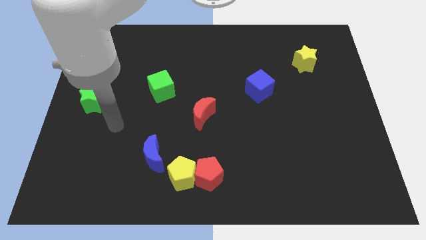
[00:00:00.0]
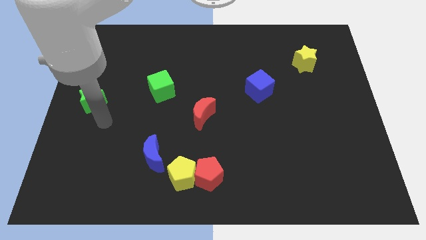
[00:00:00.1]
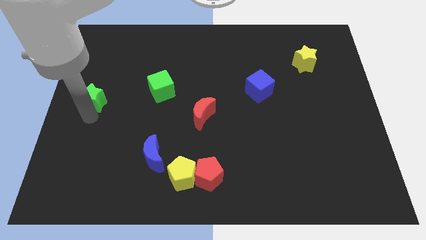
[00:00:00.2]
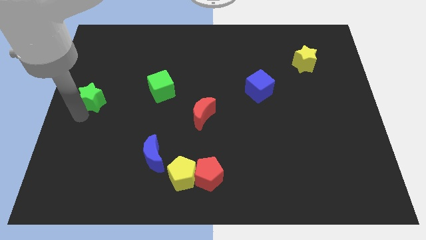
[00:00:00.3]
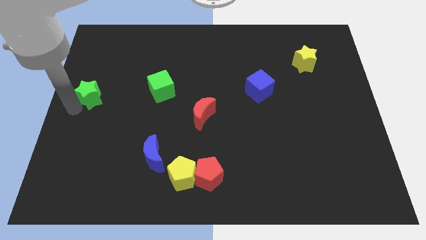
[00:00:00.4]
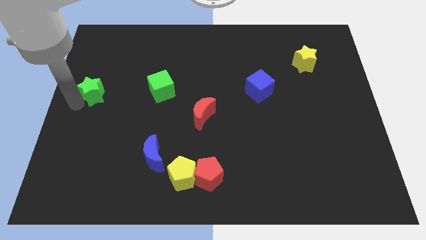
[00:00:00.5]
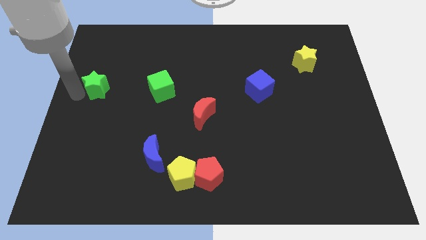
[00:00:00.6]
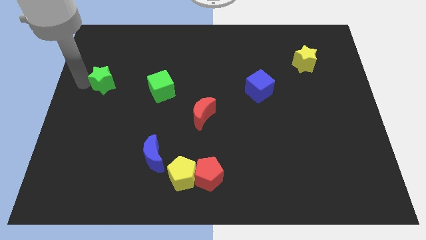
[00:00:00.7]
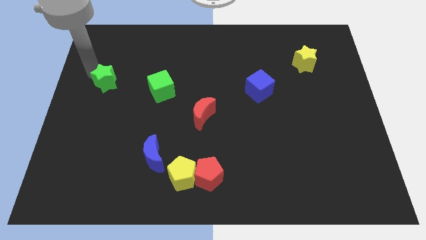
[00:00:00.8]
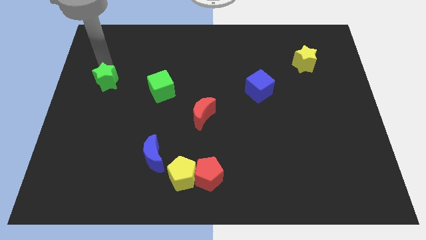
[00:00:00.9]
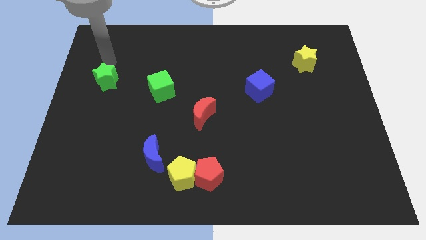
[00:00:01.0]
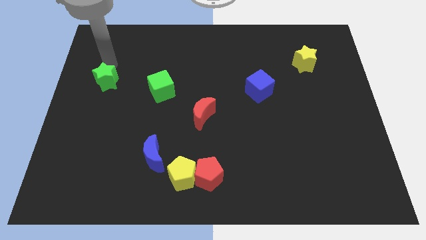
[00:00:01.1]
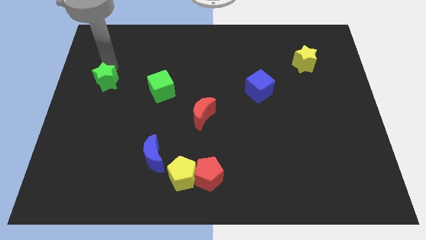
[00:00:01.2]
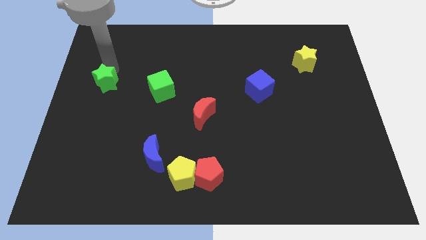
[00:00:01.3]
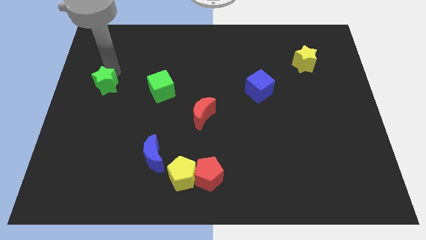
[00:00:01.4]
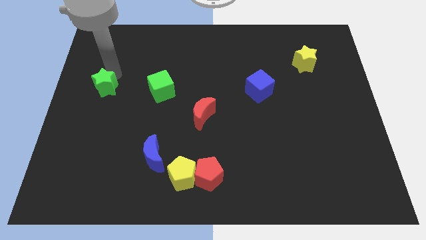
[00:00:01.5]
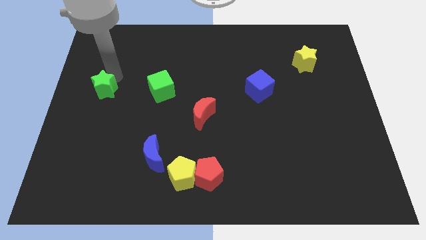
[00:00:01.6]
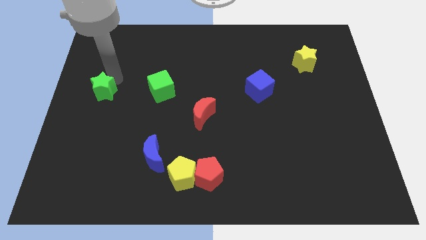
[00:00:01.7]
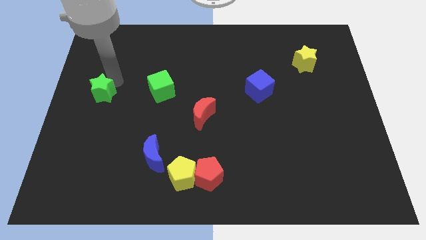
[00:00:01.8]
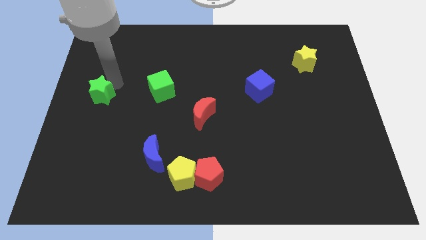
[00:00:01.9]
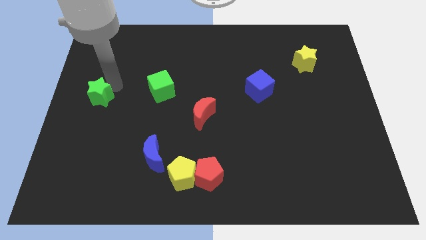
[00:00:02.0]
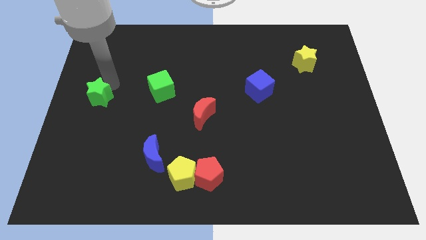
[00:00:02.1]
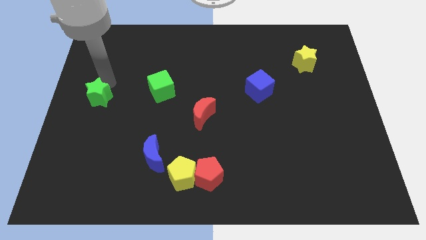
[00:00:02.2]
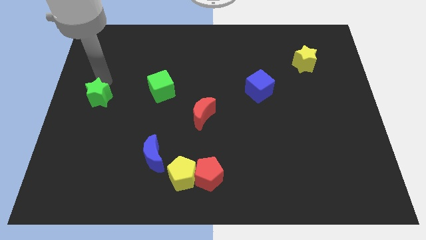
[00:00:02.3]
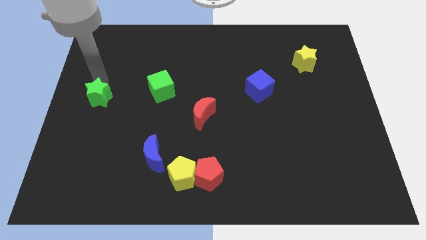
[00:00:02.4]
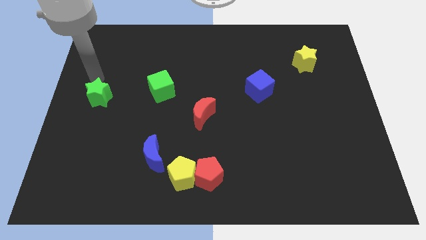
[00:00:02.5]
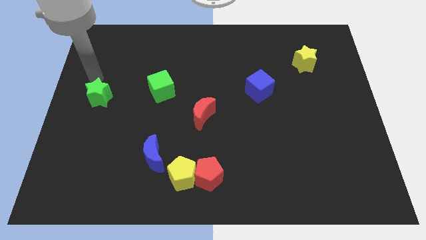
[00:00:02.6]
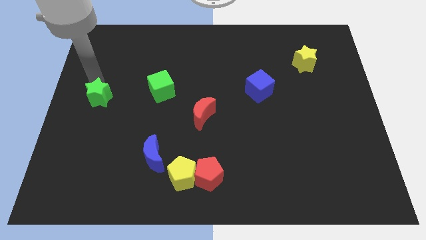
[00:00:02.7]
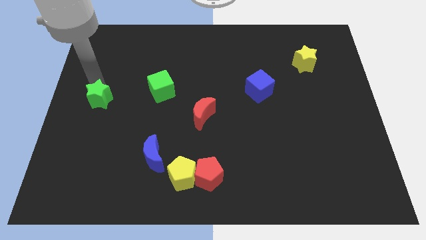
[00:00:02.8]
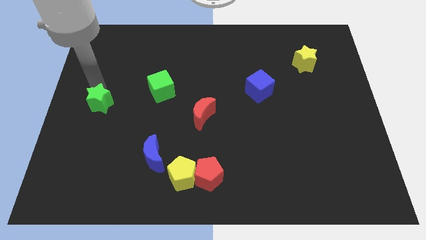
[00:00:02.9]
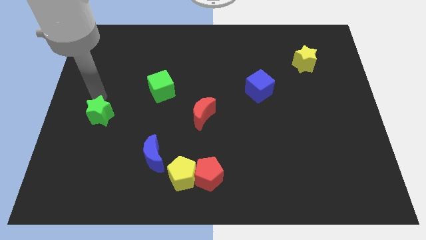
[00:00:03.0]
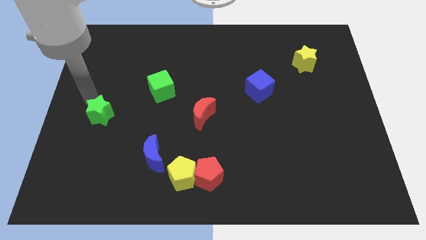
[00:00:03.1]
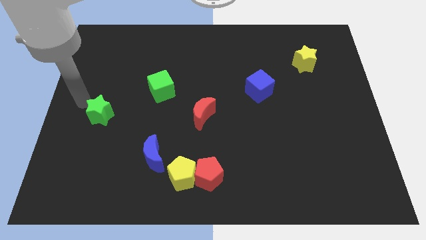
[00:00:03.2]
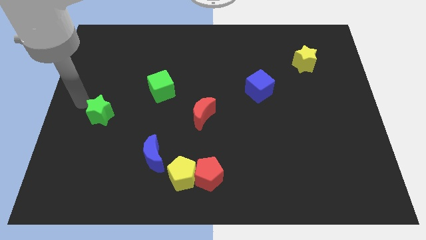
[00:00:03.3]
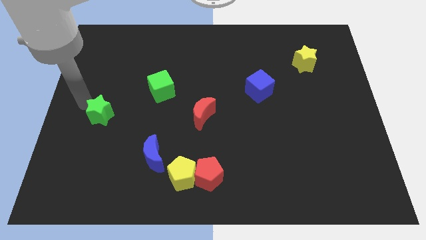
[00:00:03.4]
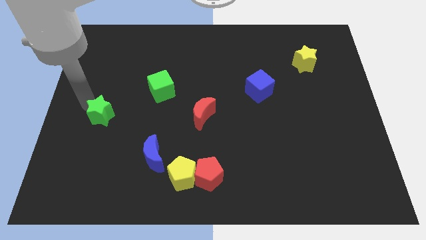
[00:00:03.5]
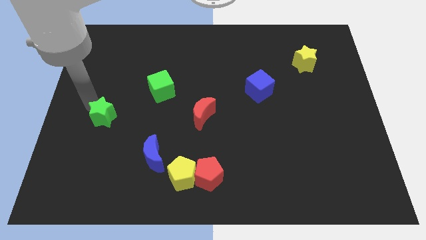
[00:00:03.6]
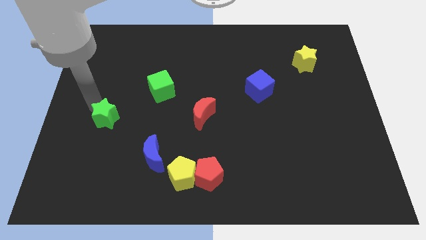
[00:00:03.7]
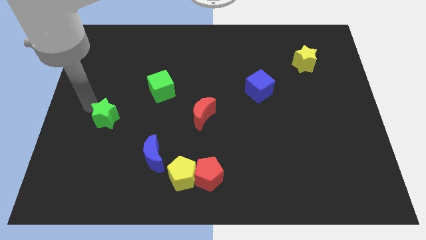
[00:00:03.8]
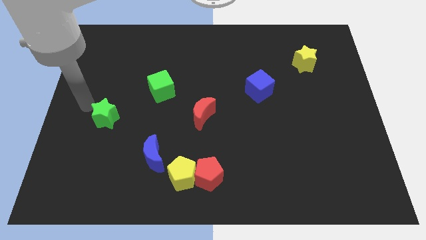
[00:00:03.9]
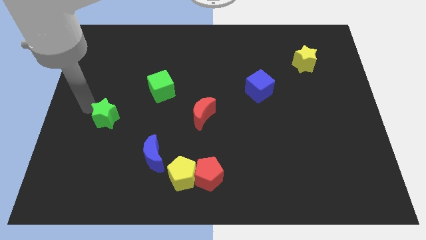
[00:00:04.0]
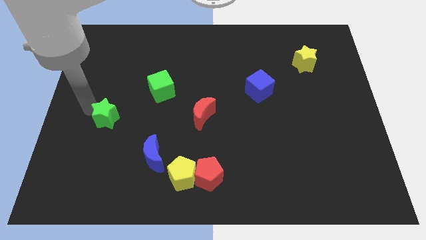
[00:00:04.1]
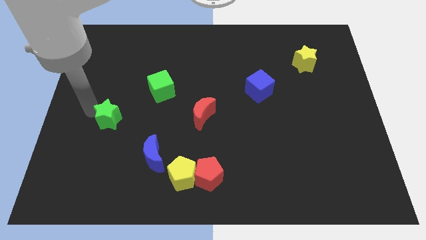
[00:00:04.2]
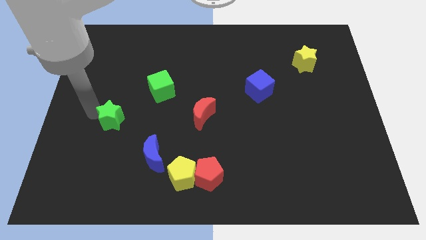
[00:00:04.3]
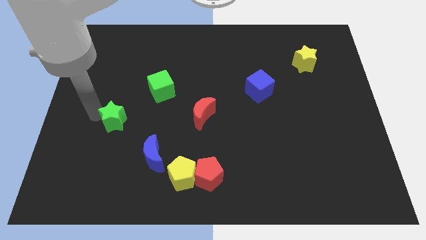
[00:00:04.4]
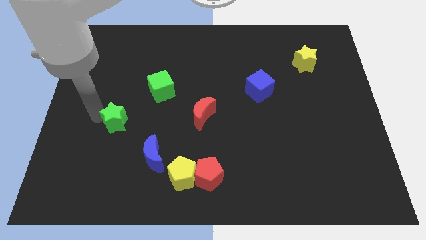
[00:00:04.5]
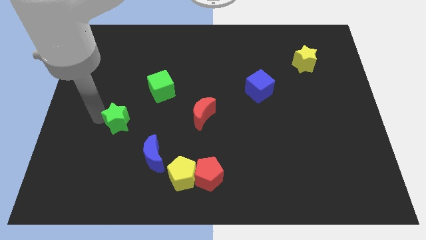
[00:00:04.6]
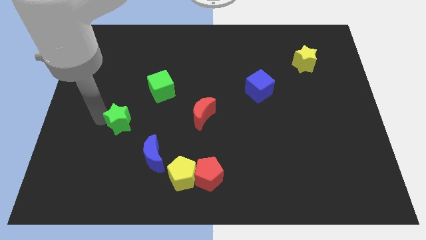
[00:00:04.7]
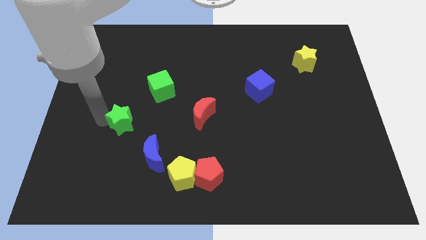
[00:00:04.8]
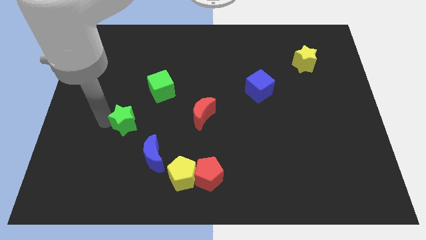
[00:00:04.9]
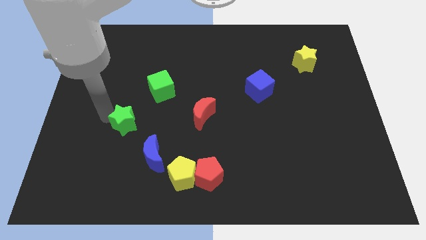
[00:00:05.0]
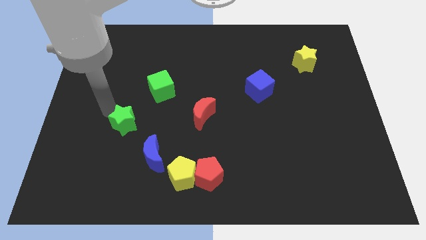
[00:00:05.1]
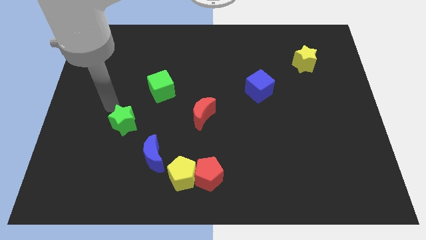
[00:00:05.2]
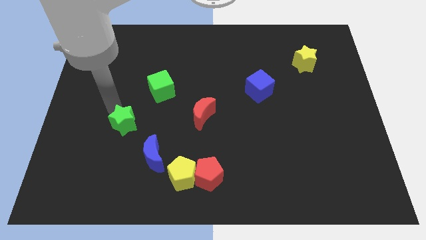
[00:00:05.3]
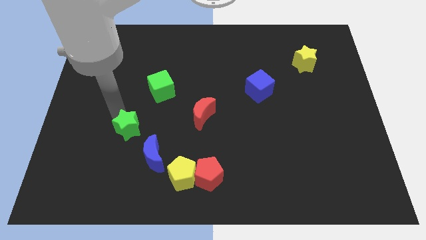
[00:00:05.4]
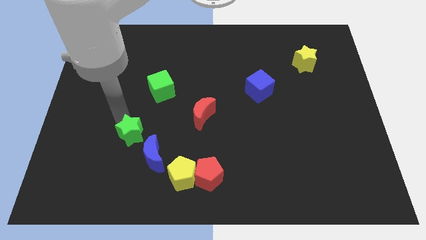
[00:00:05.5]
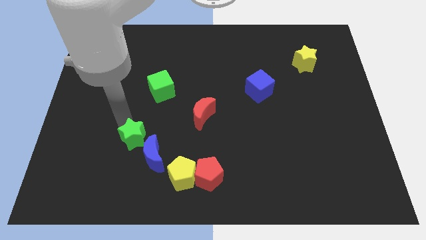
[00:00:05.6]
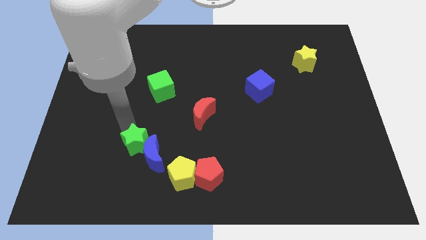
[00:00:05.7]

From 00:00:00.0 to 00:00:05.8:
slide the green star next to the blue moon

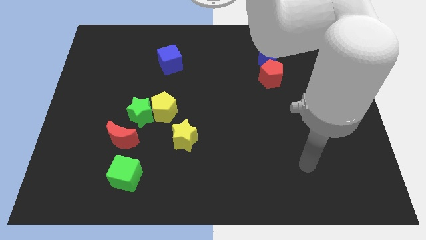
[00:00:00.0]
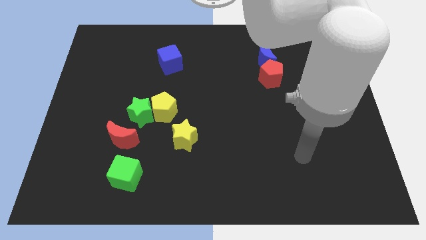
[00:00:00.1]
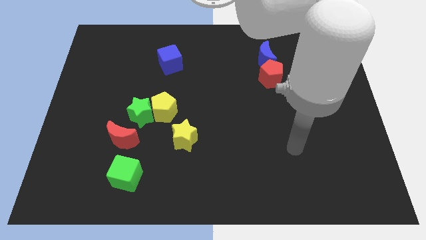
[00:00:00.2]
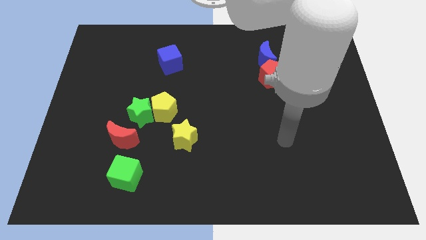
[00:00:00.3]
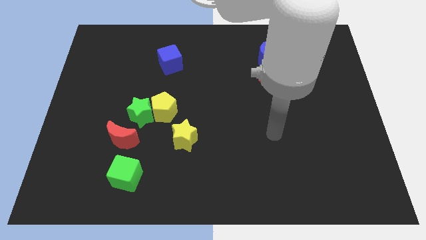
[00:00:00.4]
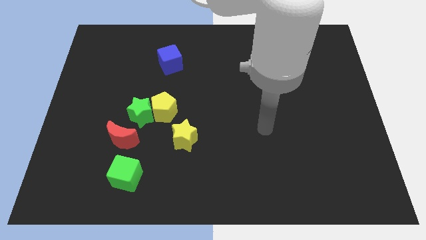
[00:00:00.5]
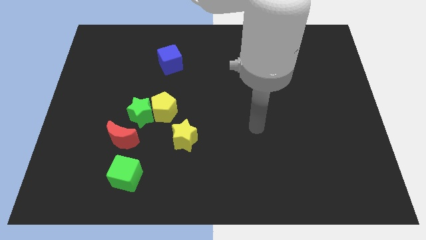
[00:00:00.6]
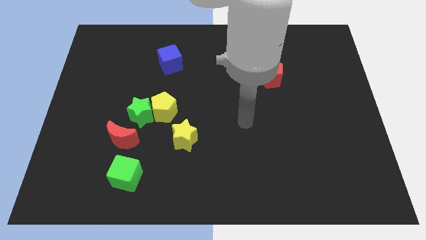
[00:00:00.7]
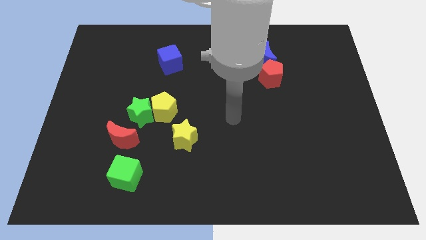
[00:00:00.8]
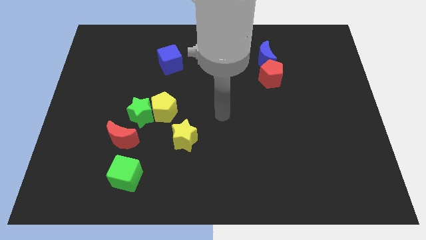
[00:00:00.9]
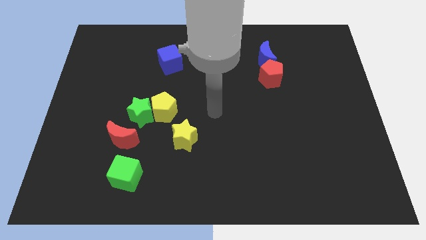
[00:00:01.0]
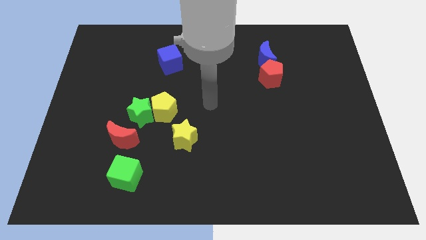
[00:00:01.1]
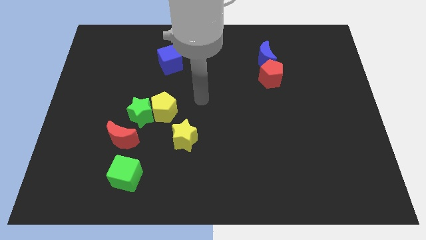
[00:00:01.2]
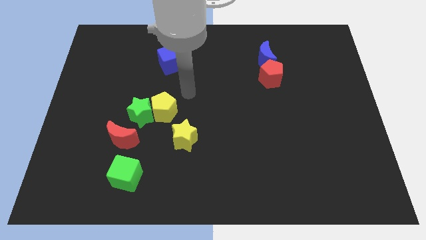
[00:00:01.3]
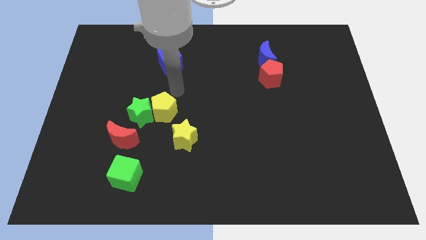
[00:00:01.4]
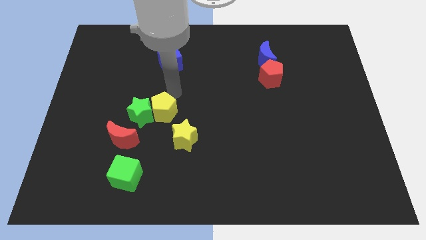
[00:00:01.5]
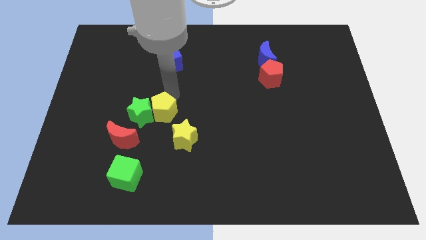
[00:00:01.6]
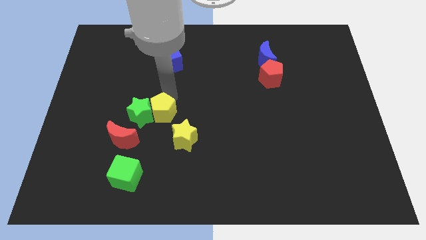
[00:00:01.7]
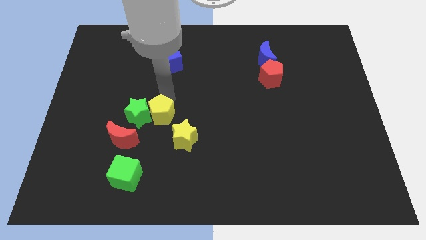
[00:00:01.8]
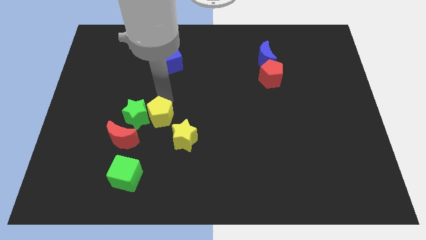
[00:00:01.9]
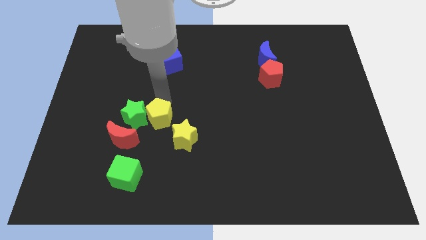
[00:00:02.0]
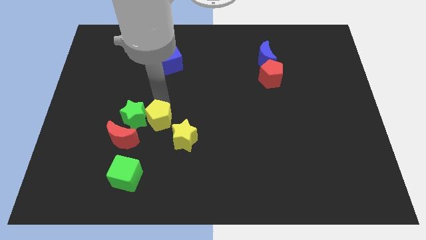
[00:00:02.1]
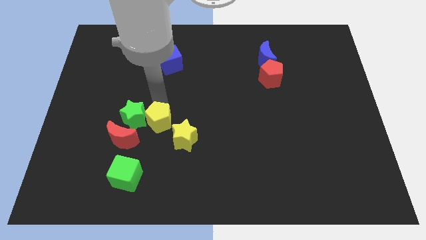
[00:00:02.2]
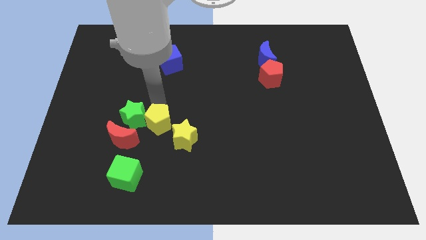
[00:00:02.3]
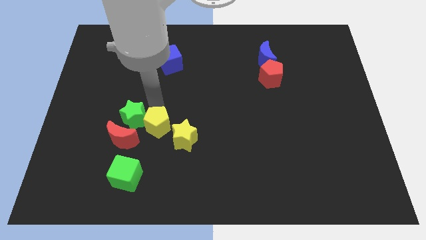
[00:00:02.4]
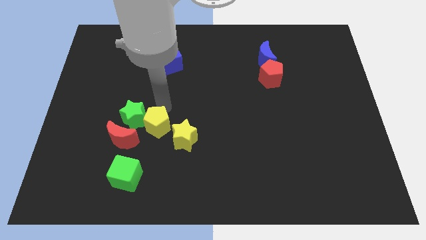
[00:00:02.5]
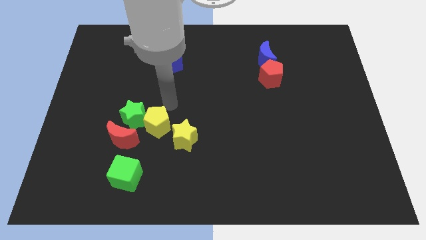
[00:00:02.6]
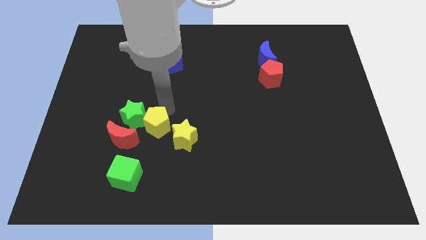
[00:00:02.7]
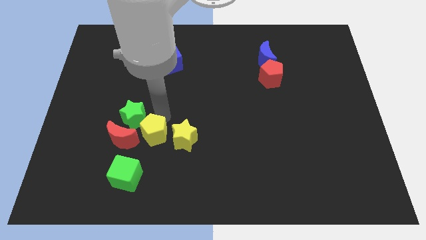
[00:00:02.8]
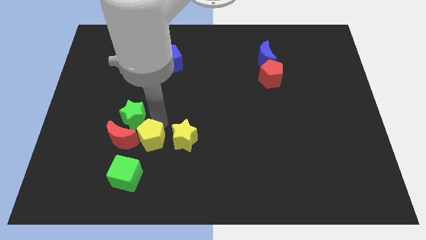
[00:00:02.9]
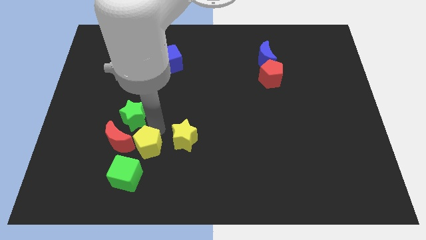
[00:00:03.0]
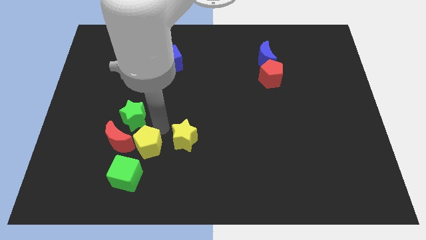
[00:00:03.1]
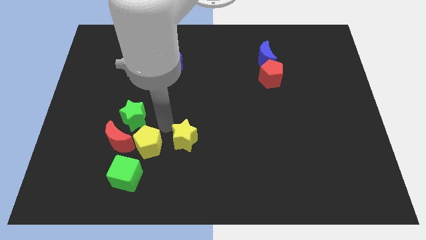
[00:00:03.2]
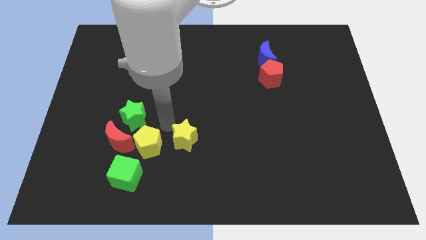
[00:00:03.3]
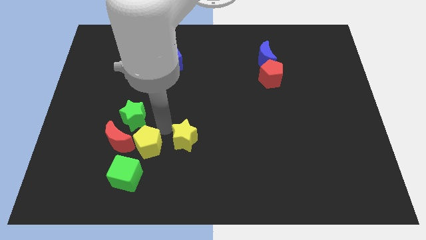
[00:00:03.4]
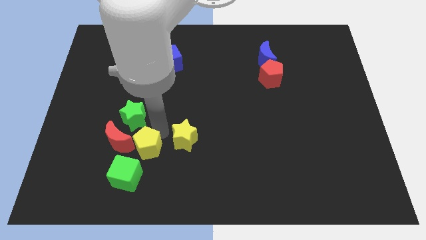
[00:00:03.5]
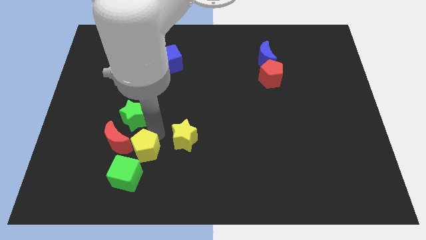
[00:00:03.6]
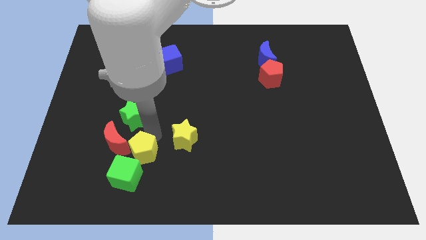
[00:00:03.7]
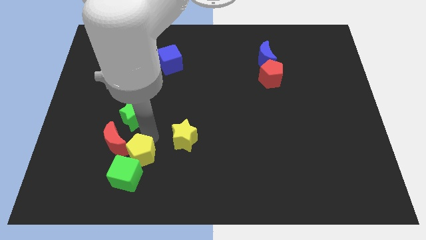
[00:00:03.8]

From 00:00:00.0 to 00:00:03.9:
put the yellow pentagon next to the green cube
